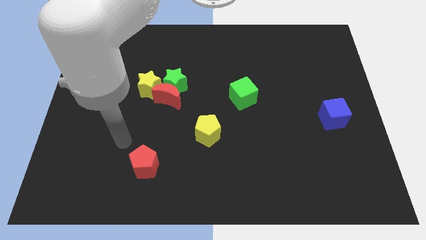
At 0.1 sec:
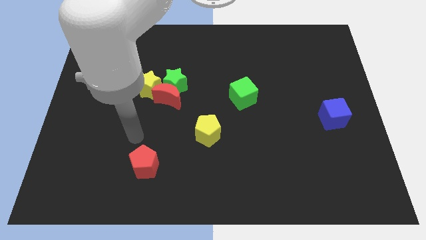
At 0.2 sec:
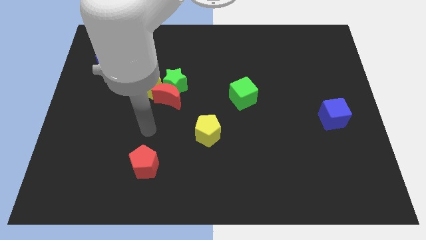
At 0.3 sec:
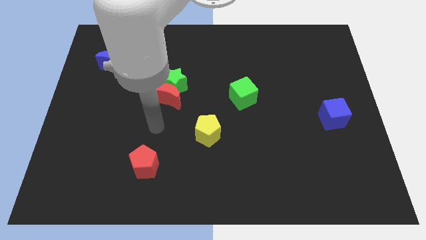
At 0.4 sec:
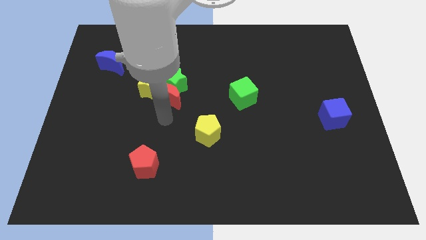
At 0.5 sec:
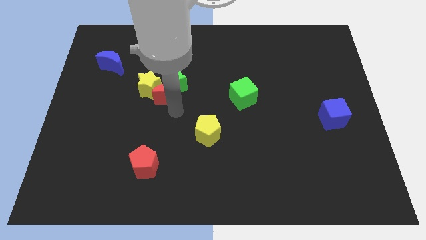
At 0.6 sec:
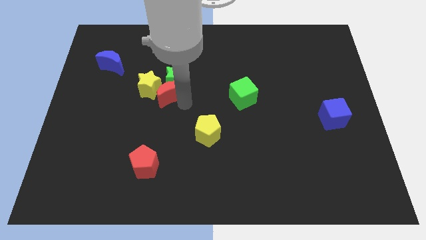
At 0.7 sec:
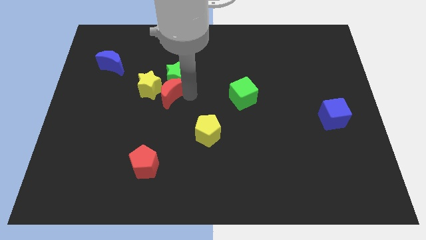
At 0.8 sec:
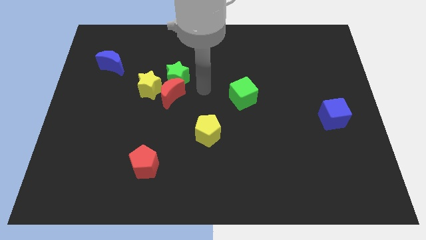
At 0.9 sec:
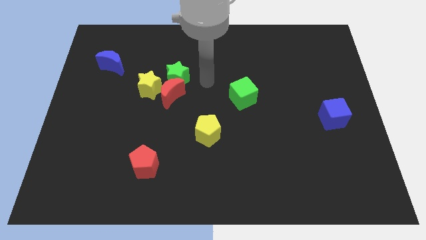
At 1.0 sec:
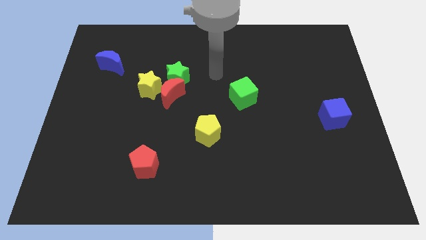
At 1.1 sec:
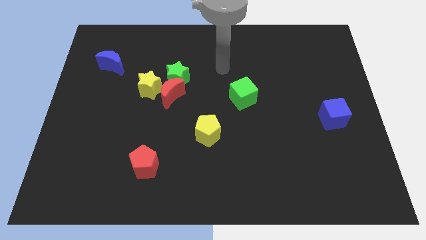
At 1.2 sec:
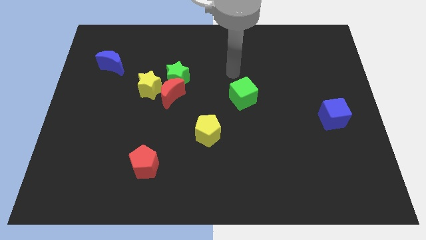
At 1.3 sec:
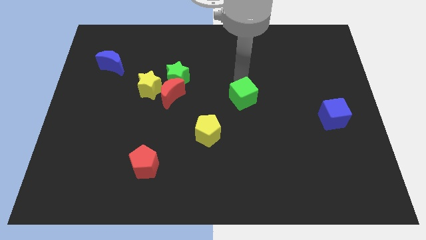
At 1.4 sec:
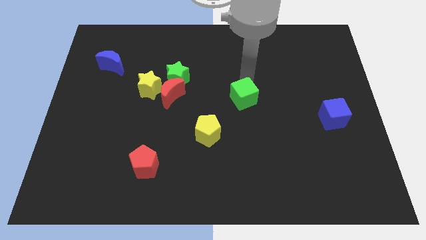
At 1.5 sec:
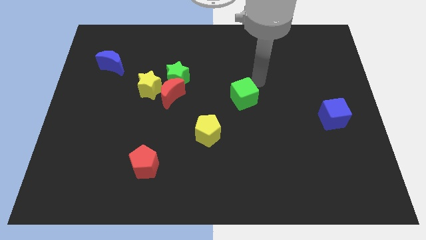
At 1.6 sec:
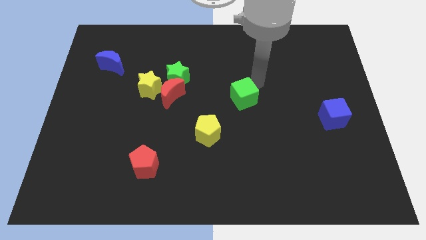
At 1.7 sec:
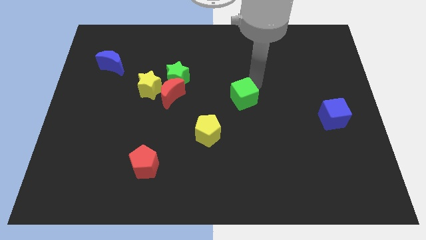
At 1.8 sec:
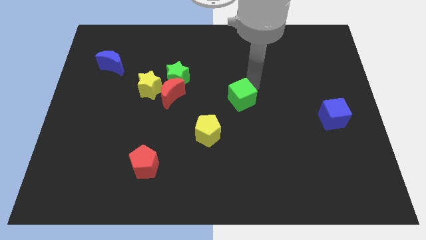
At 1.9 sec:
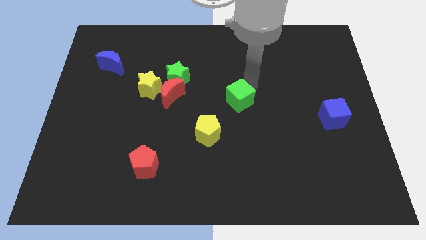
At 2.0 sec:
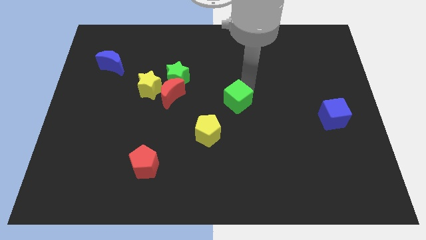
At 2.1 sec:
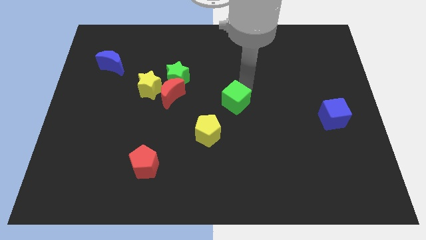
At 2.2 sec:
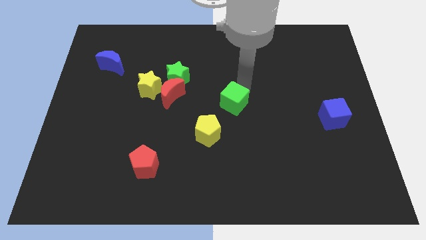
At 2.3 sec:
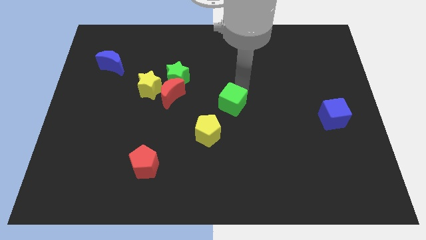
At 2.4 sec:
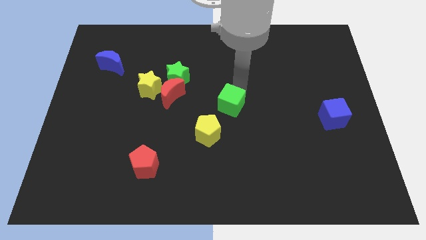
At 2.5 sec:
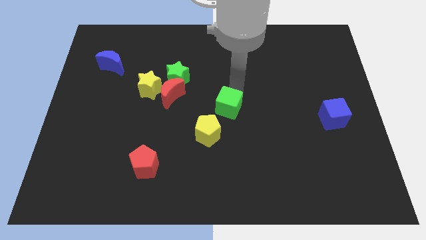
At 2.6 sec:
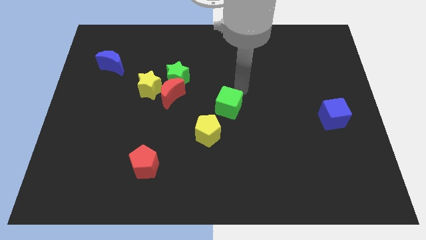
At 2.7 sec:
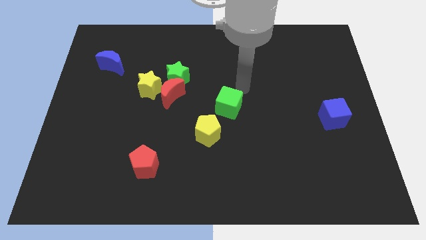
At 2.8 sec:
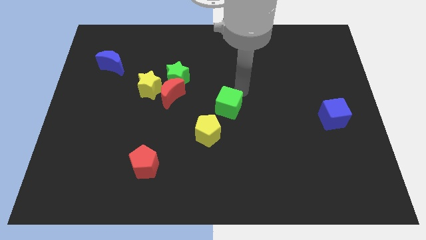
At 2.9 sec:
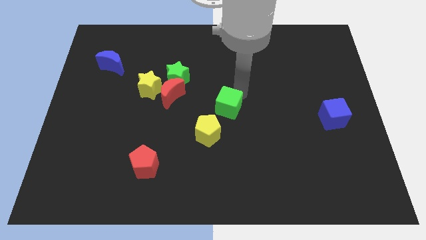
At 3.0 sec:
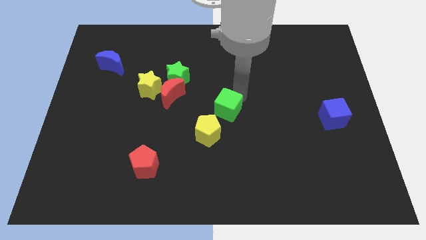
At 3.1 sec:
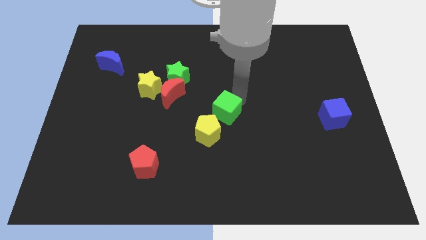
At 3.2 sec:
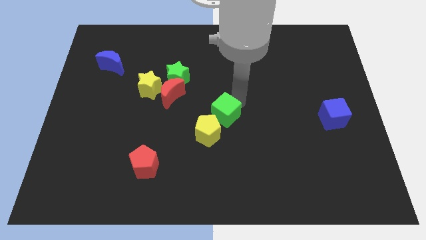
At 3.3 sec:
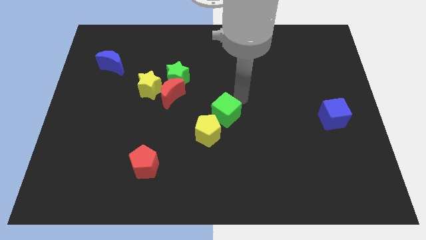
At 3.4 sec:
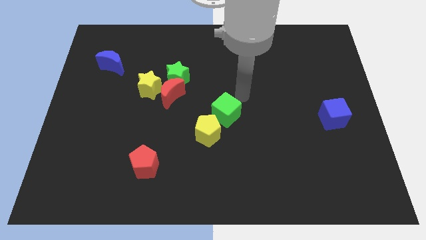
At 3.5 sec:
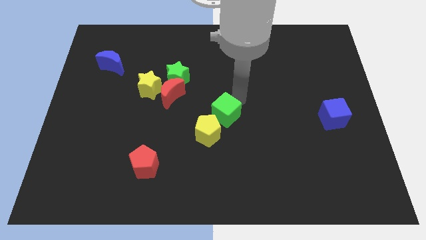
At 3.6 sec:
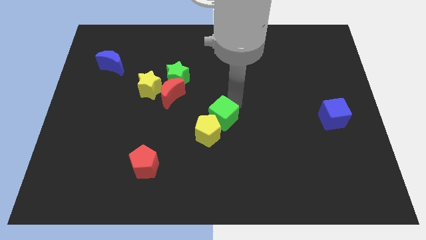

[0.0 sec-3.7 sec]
move the green cube next to the yellow pentagon

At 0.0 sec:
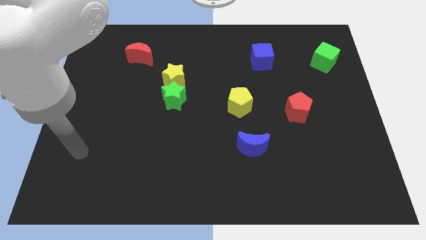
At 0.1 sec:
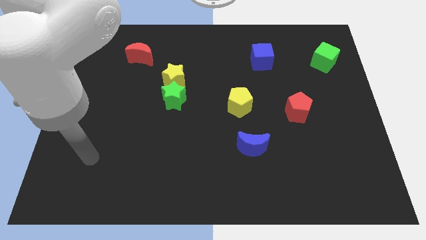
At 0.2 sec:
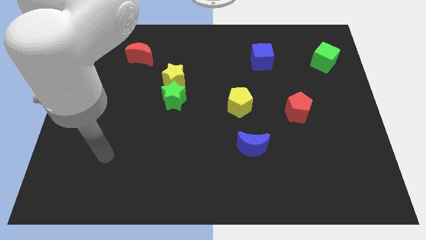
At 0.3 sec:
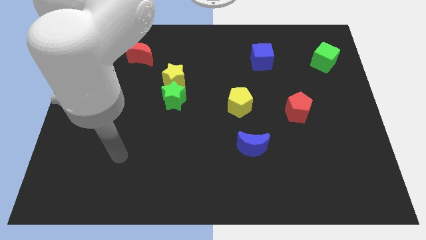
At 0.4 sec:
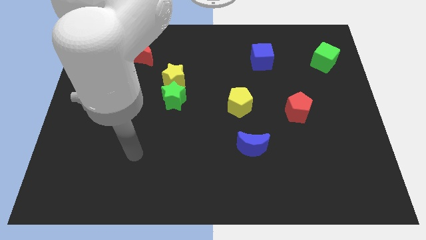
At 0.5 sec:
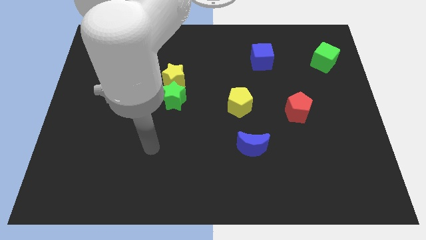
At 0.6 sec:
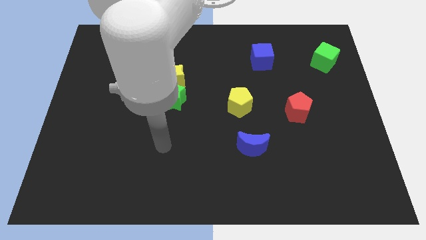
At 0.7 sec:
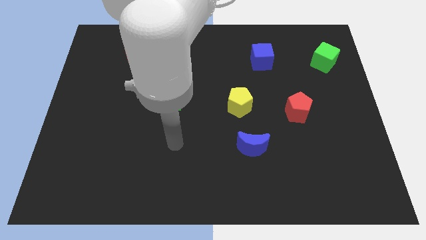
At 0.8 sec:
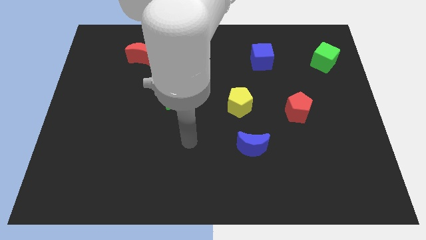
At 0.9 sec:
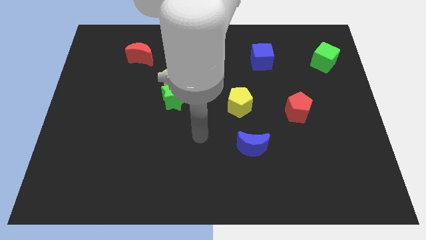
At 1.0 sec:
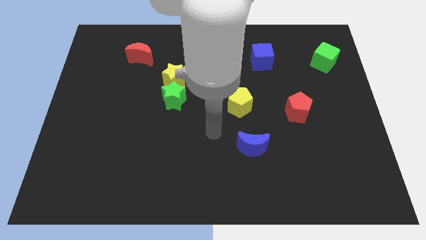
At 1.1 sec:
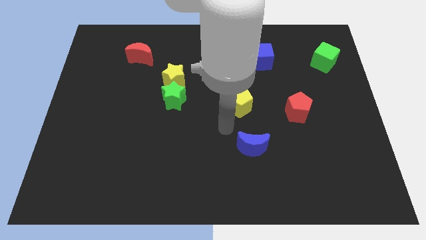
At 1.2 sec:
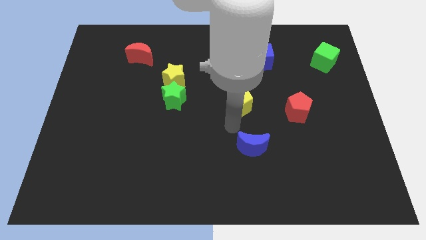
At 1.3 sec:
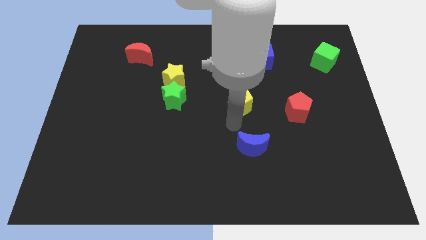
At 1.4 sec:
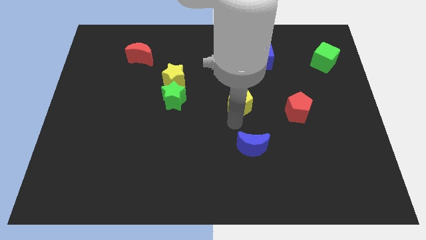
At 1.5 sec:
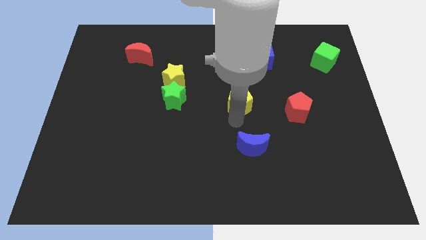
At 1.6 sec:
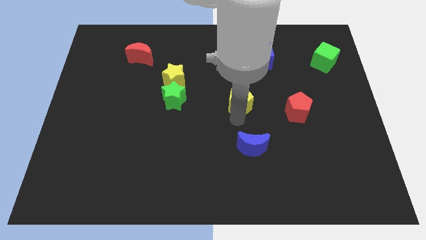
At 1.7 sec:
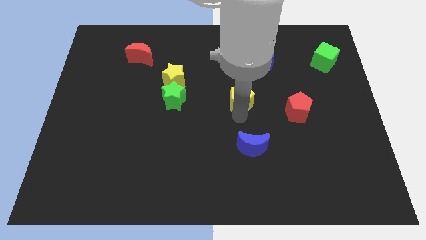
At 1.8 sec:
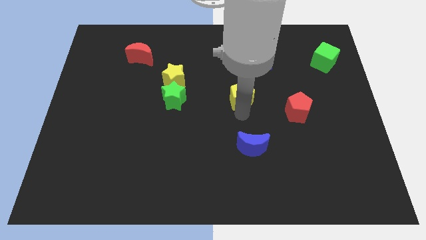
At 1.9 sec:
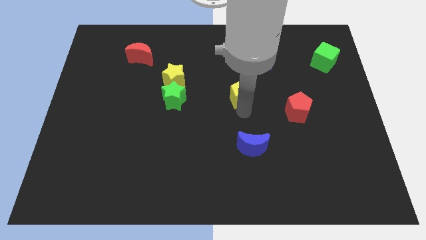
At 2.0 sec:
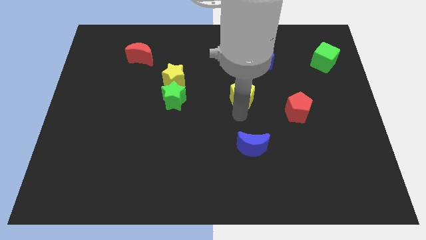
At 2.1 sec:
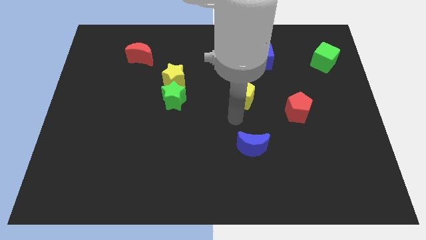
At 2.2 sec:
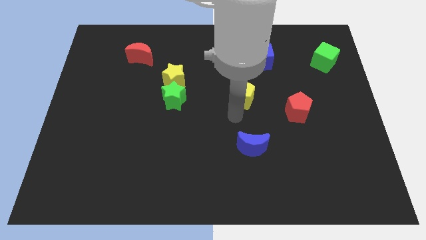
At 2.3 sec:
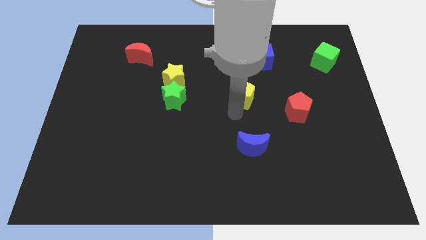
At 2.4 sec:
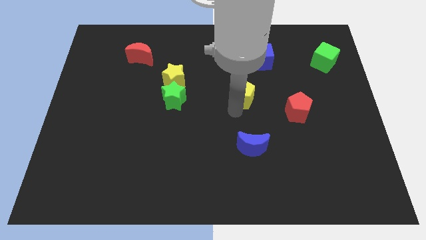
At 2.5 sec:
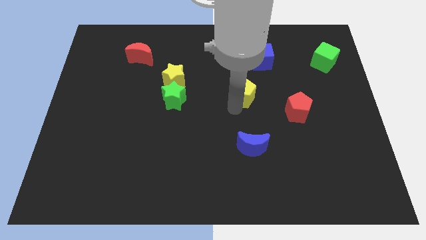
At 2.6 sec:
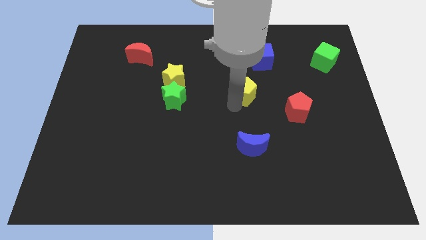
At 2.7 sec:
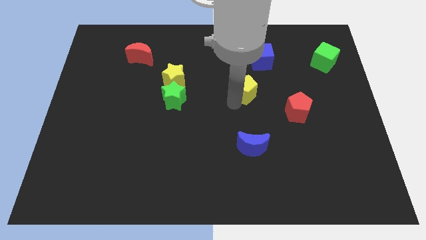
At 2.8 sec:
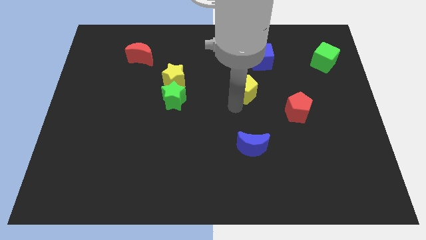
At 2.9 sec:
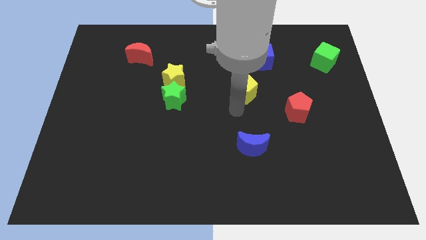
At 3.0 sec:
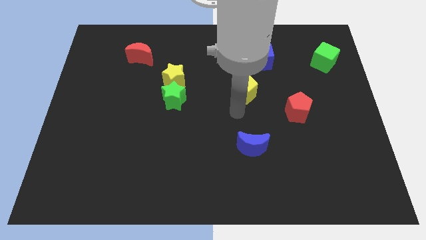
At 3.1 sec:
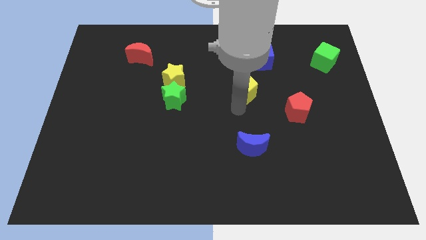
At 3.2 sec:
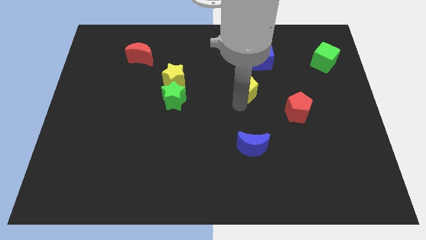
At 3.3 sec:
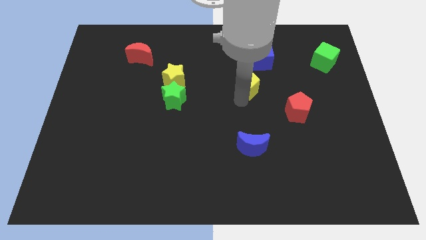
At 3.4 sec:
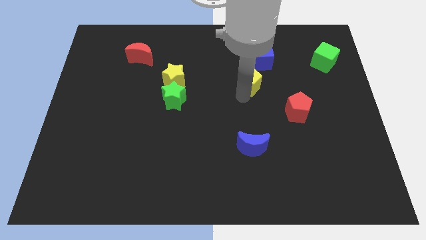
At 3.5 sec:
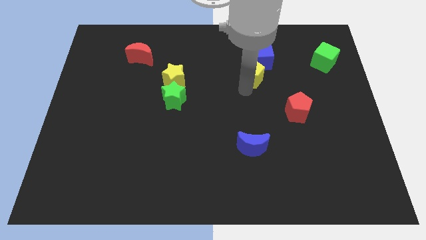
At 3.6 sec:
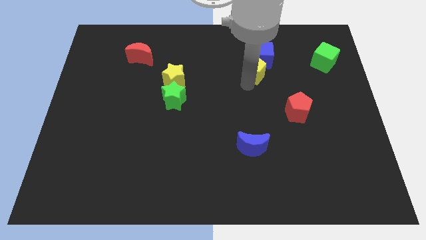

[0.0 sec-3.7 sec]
move the yellow pentagon next to the blue cube

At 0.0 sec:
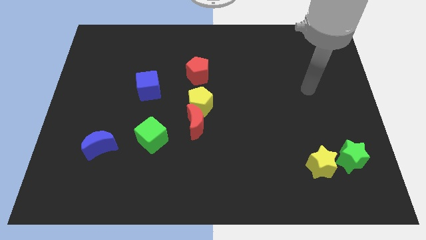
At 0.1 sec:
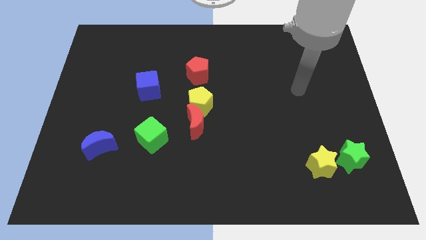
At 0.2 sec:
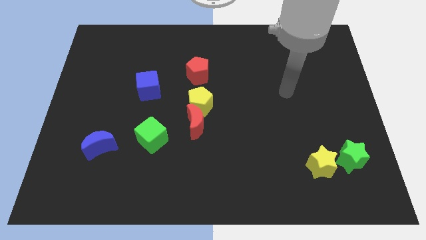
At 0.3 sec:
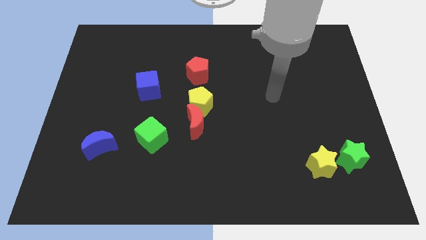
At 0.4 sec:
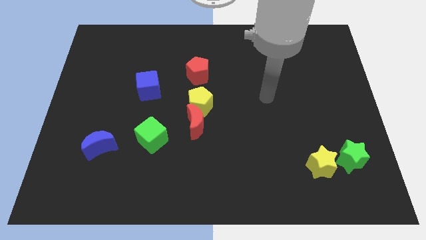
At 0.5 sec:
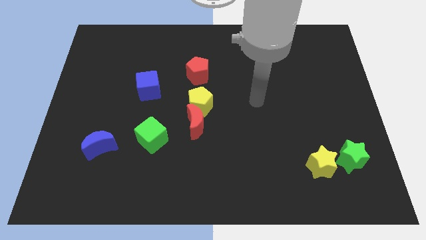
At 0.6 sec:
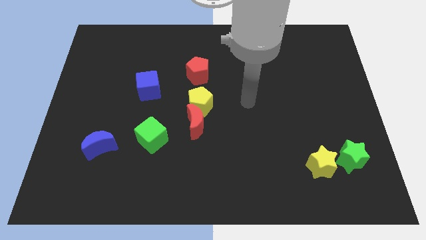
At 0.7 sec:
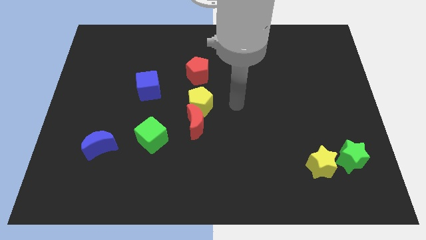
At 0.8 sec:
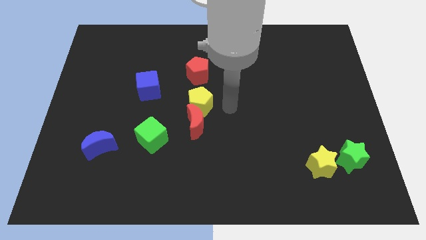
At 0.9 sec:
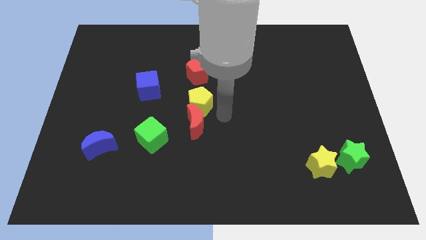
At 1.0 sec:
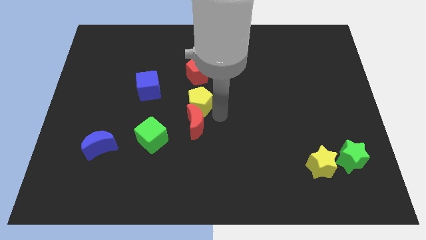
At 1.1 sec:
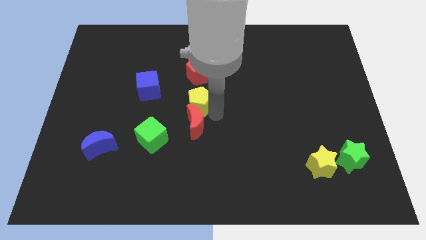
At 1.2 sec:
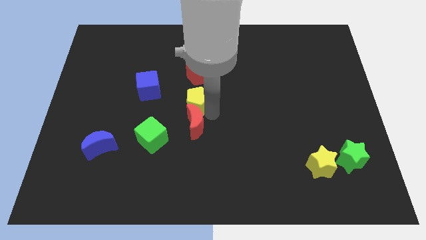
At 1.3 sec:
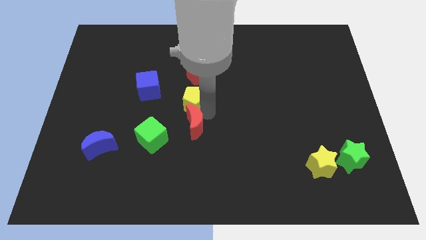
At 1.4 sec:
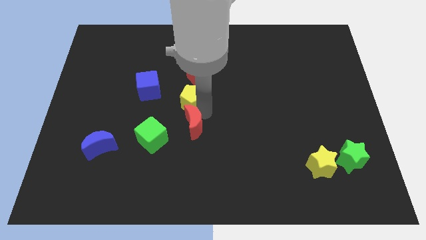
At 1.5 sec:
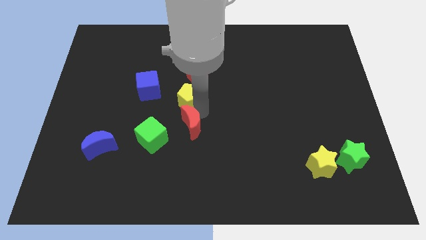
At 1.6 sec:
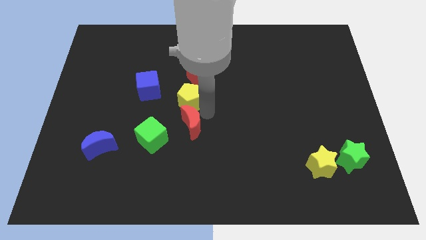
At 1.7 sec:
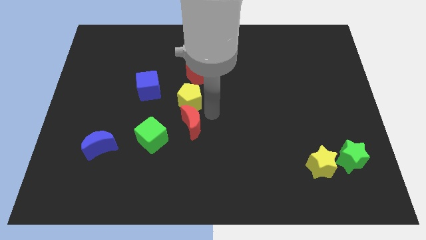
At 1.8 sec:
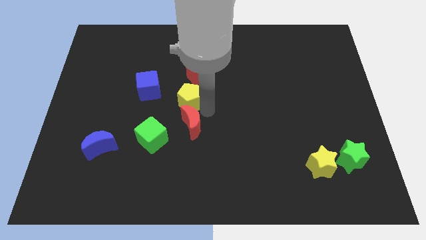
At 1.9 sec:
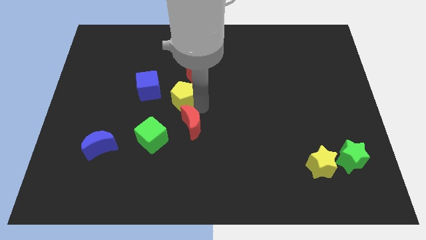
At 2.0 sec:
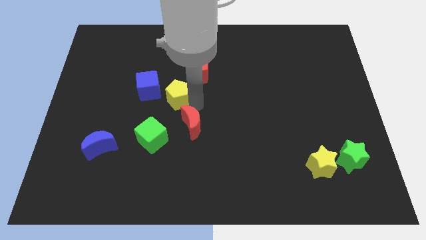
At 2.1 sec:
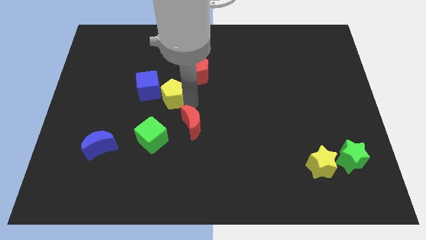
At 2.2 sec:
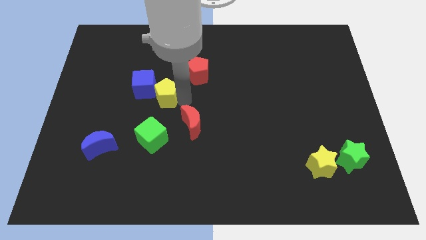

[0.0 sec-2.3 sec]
slide the yellow pentagon to the blue cube
